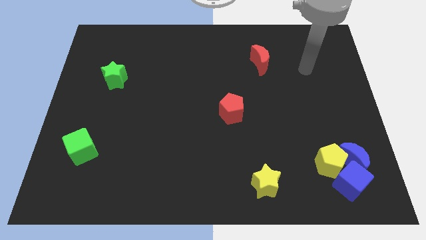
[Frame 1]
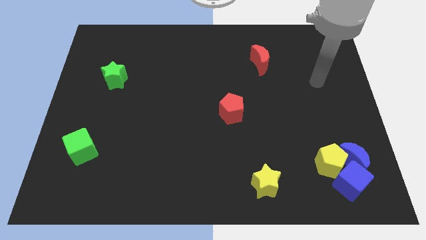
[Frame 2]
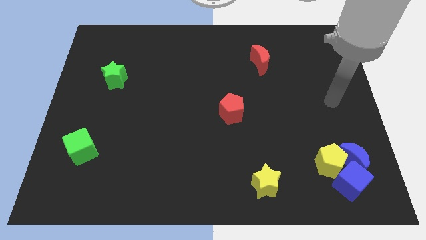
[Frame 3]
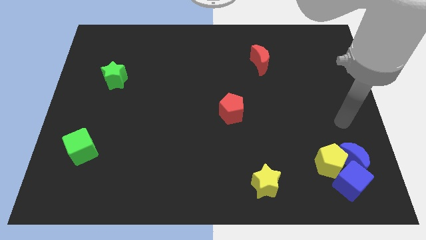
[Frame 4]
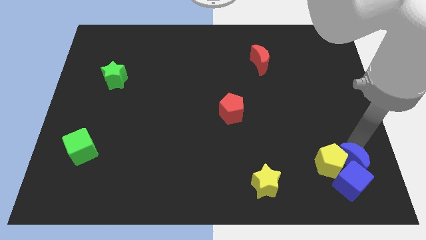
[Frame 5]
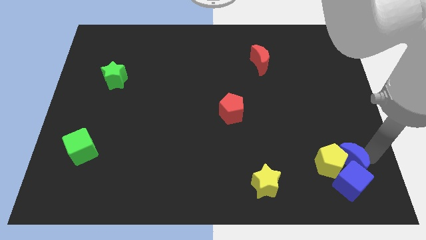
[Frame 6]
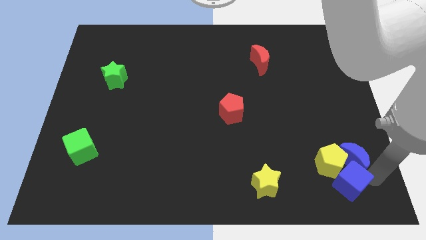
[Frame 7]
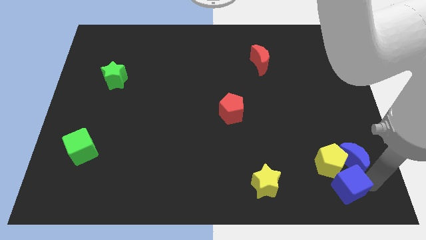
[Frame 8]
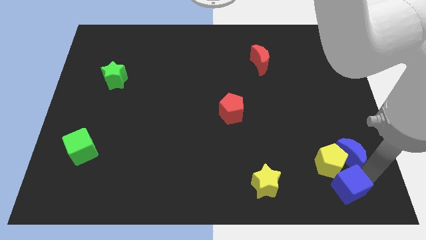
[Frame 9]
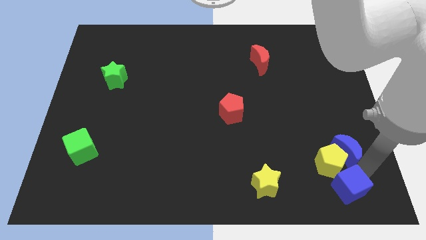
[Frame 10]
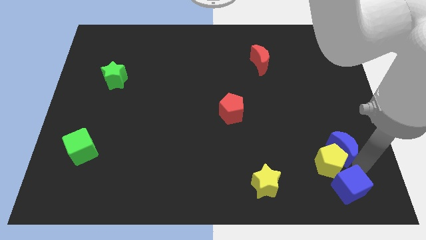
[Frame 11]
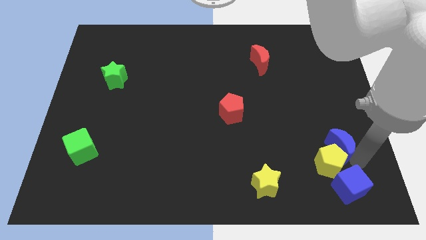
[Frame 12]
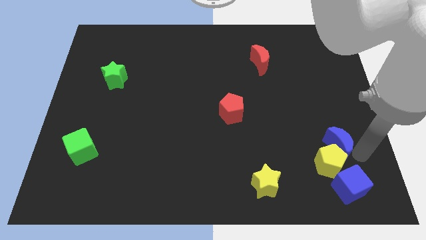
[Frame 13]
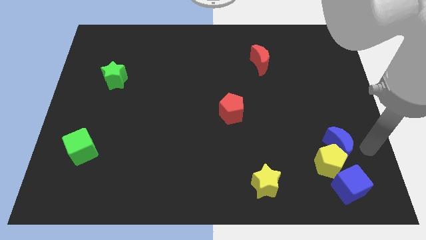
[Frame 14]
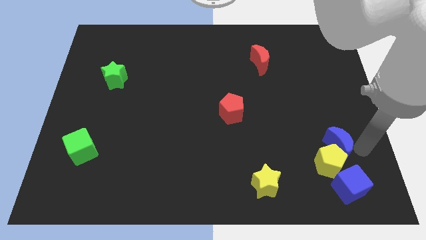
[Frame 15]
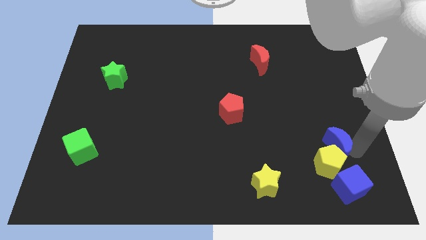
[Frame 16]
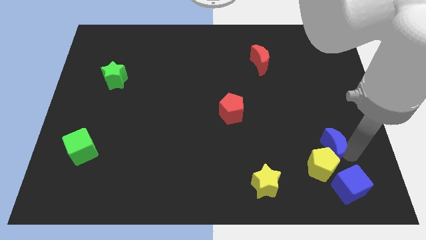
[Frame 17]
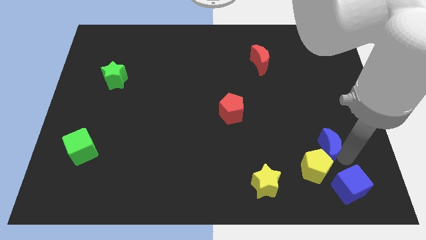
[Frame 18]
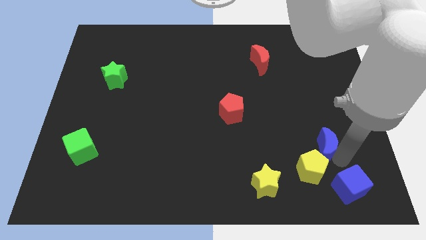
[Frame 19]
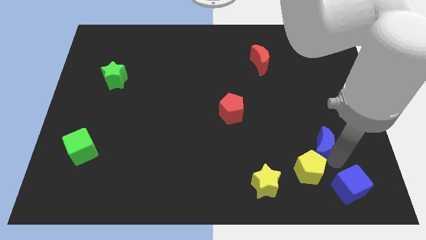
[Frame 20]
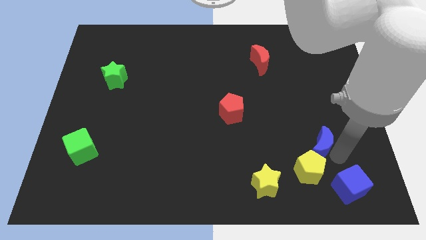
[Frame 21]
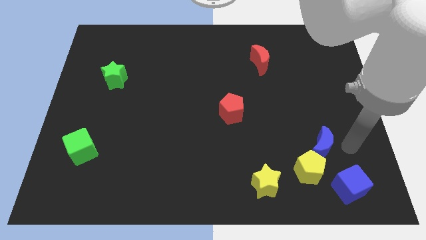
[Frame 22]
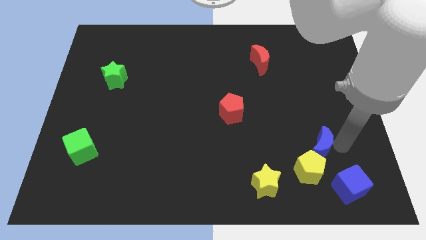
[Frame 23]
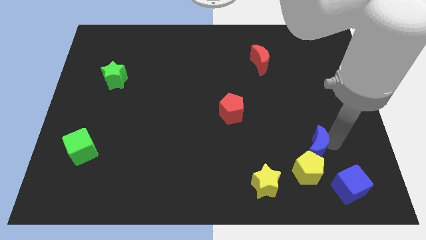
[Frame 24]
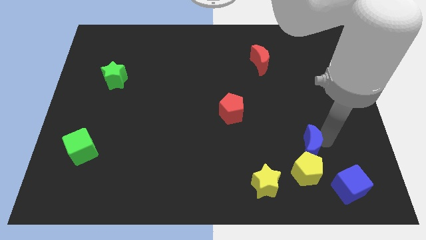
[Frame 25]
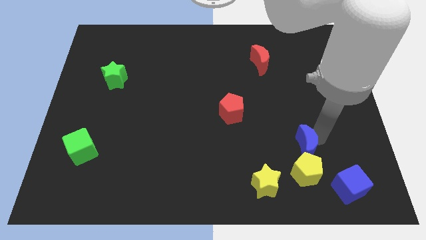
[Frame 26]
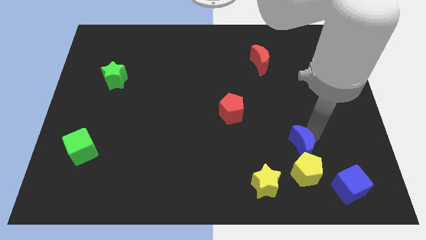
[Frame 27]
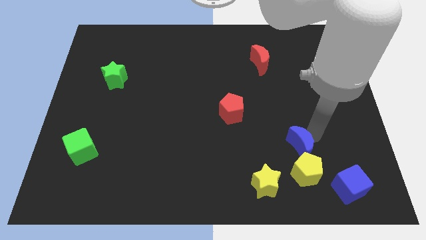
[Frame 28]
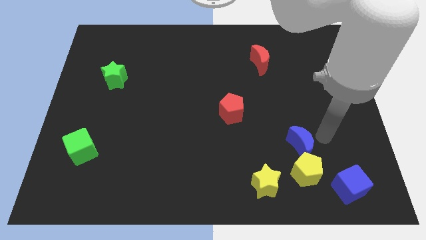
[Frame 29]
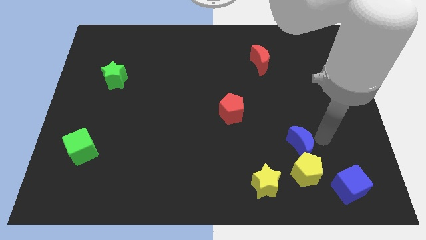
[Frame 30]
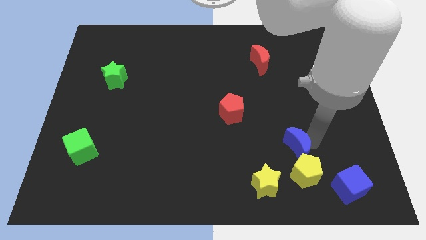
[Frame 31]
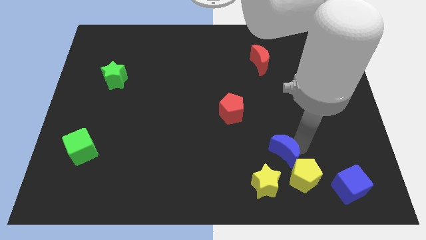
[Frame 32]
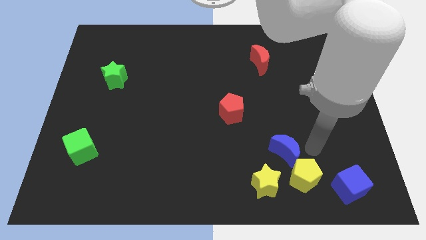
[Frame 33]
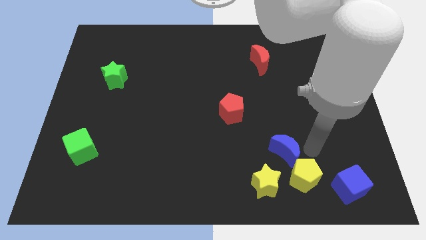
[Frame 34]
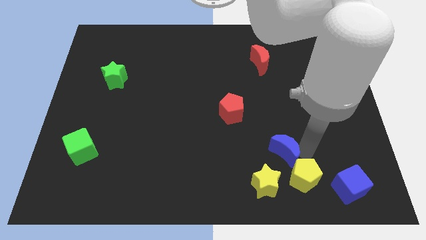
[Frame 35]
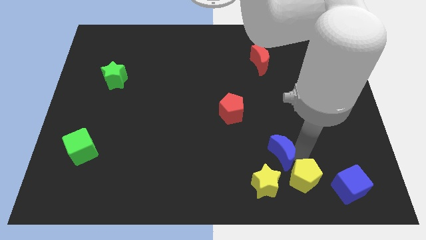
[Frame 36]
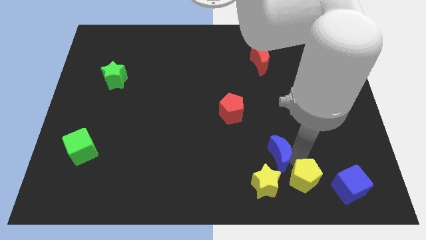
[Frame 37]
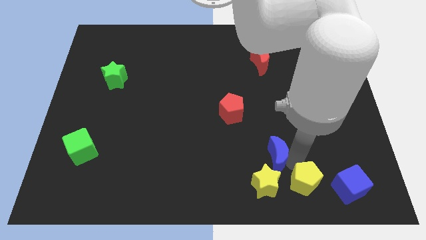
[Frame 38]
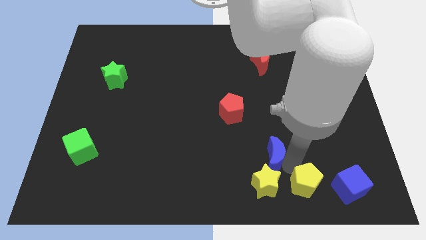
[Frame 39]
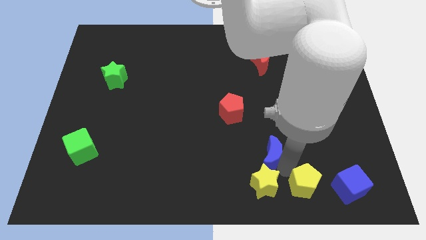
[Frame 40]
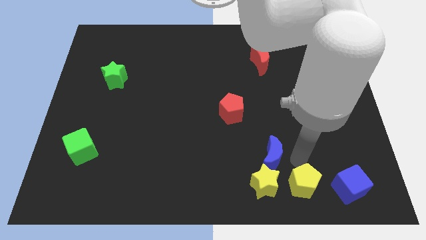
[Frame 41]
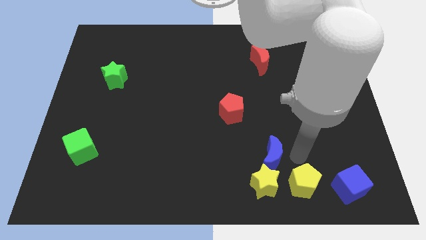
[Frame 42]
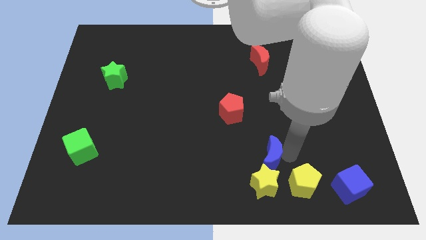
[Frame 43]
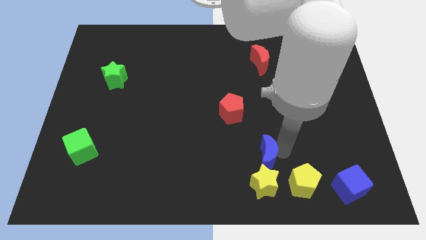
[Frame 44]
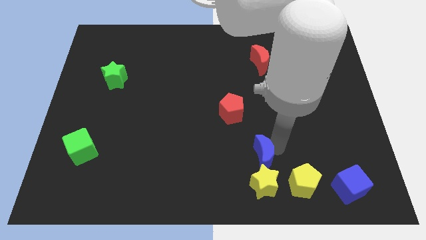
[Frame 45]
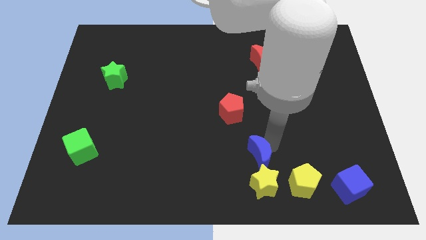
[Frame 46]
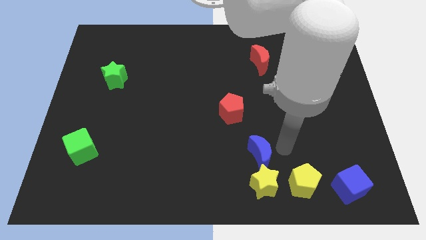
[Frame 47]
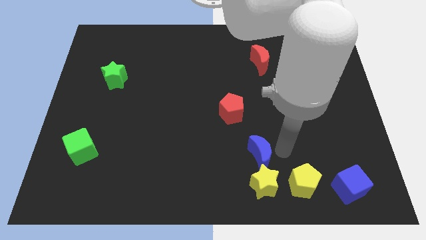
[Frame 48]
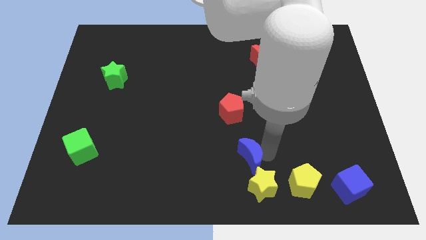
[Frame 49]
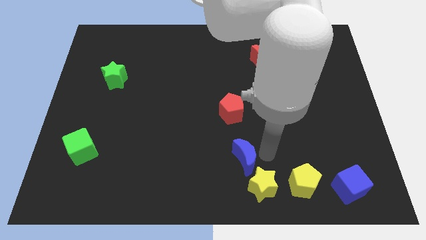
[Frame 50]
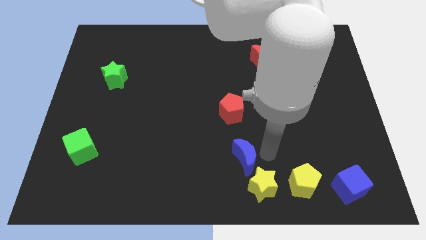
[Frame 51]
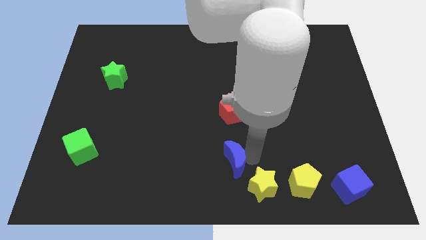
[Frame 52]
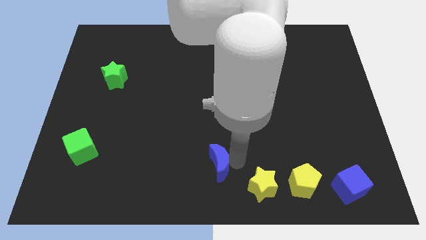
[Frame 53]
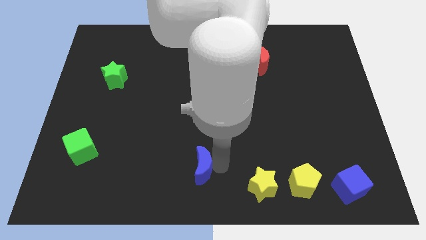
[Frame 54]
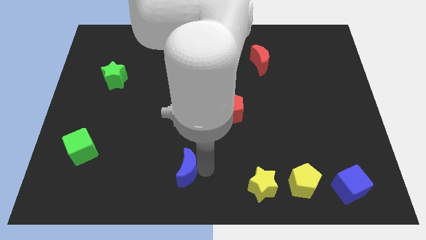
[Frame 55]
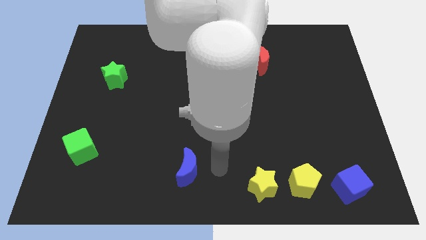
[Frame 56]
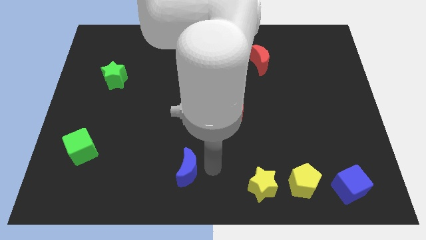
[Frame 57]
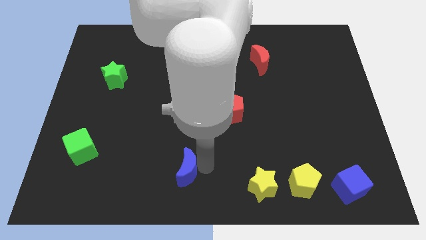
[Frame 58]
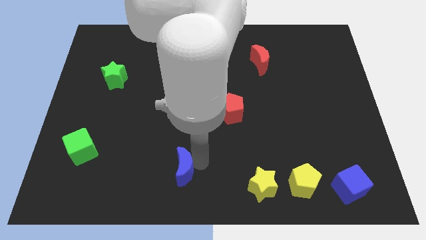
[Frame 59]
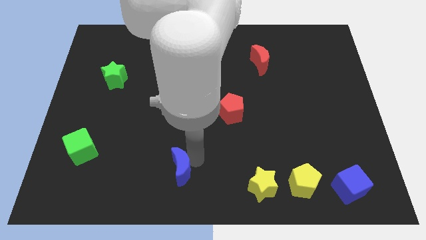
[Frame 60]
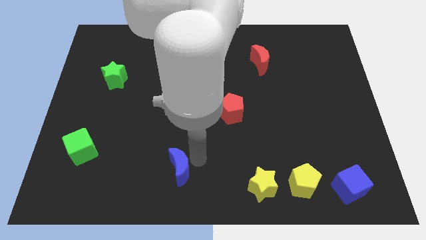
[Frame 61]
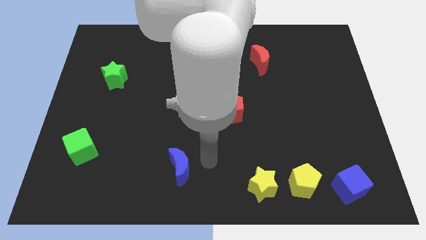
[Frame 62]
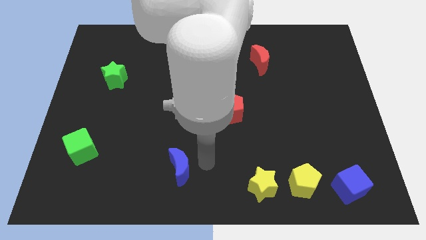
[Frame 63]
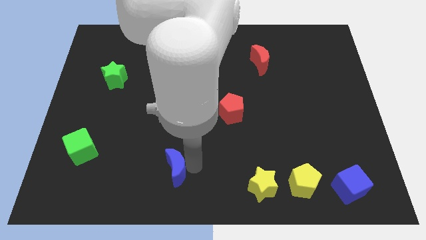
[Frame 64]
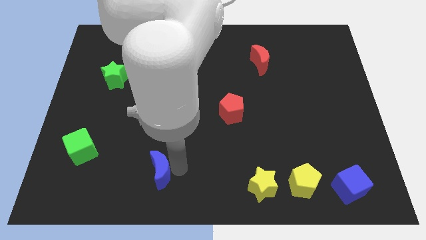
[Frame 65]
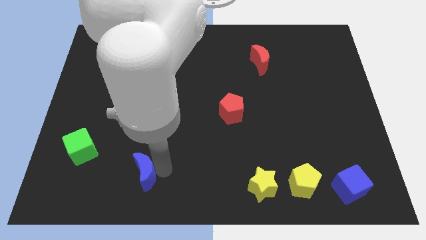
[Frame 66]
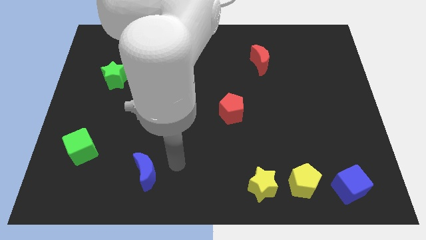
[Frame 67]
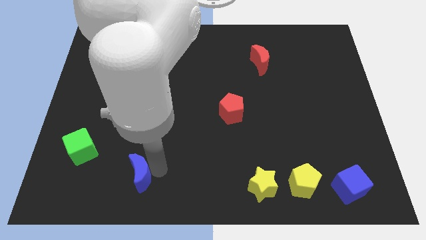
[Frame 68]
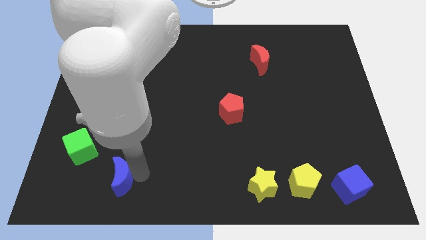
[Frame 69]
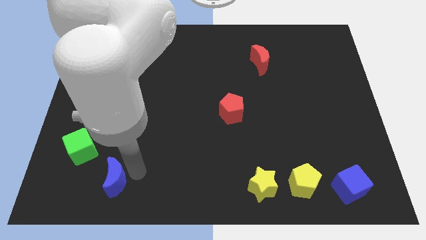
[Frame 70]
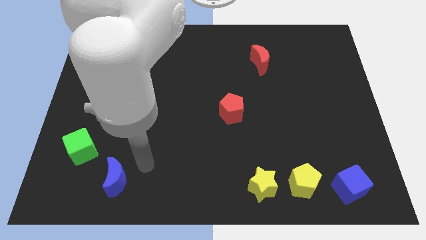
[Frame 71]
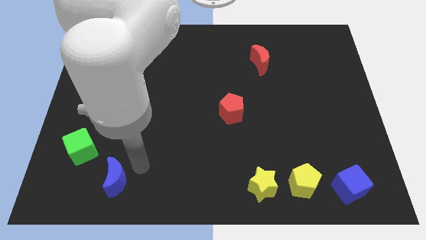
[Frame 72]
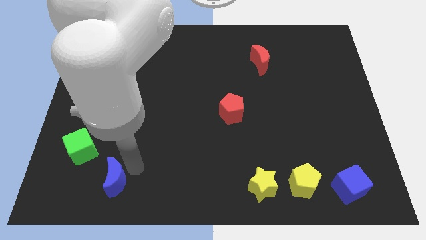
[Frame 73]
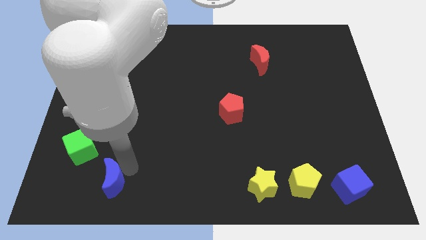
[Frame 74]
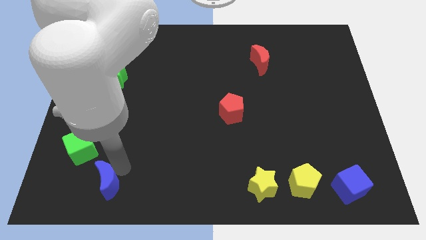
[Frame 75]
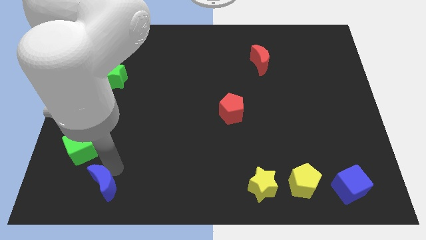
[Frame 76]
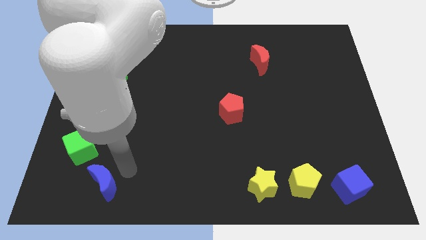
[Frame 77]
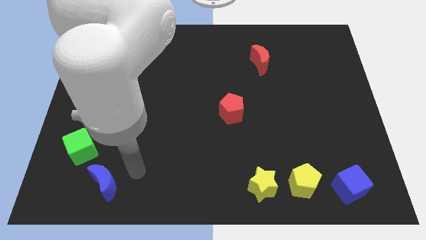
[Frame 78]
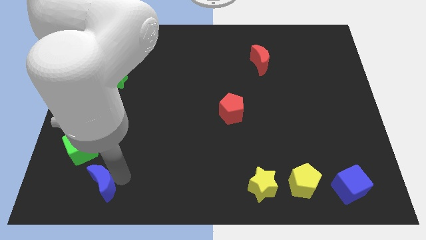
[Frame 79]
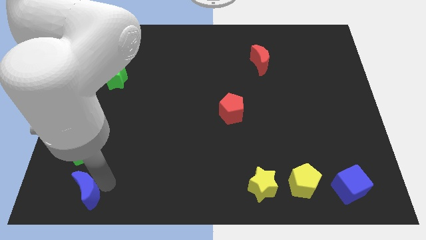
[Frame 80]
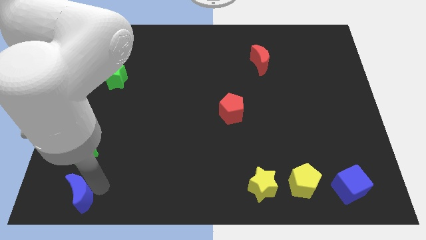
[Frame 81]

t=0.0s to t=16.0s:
move the blue moon to the bottom left

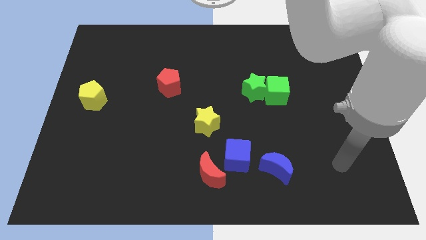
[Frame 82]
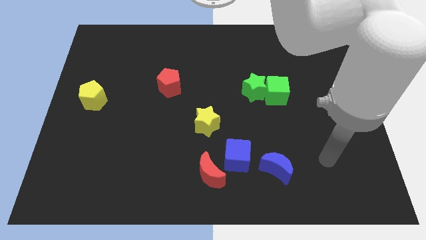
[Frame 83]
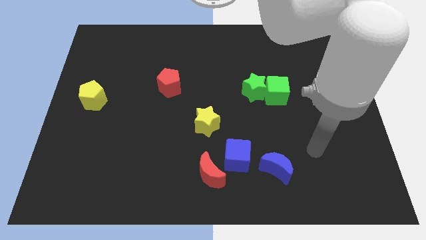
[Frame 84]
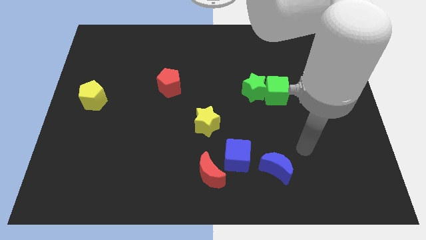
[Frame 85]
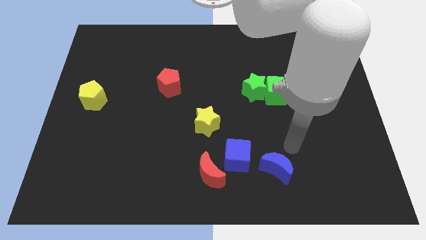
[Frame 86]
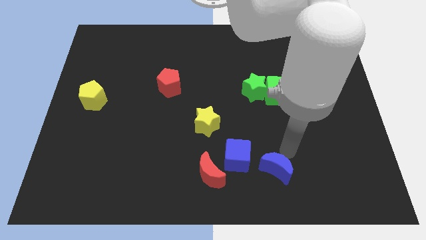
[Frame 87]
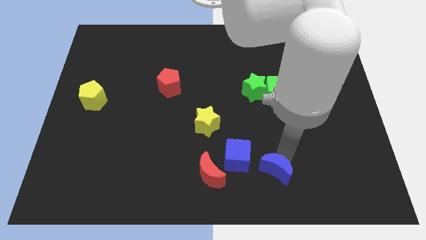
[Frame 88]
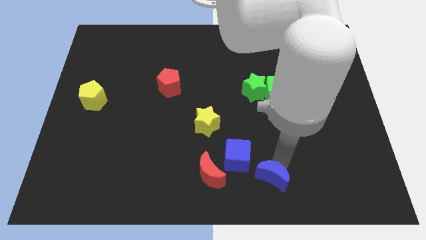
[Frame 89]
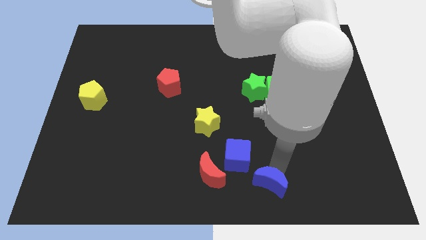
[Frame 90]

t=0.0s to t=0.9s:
move the blue moon to the bottom side
